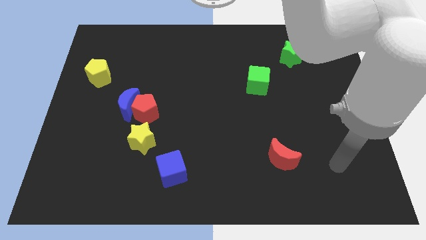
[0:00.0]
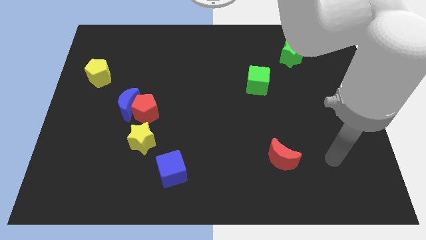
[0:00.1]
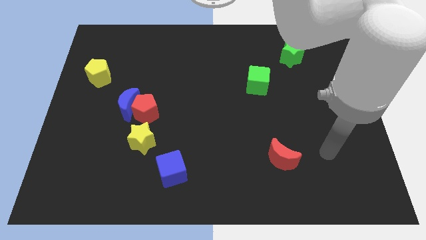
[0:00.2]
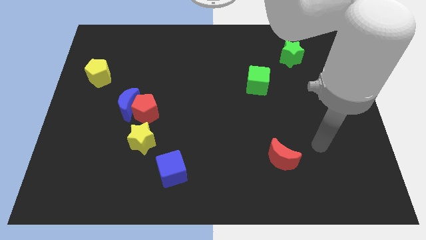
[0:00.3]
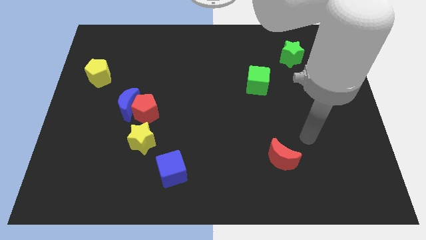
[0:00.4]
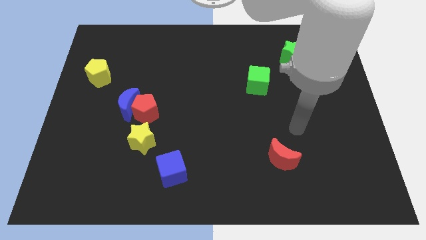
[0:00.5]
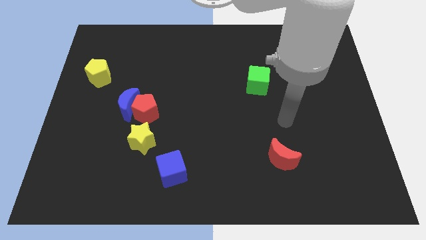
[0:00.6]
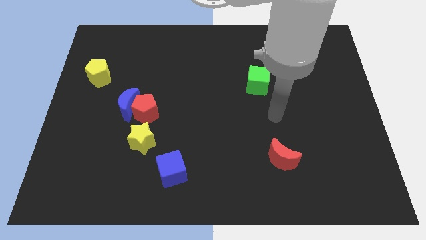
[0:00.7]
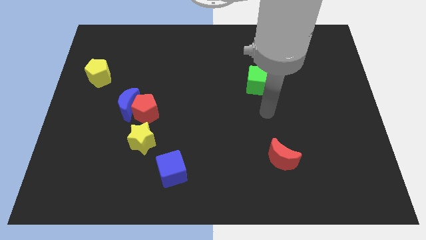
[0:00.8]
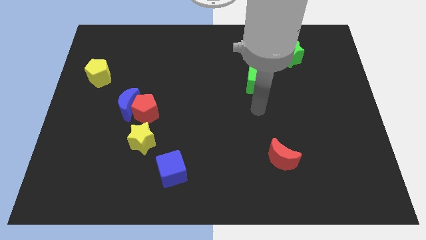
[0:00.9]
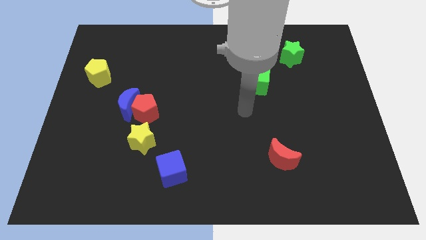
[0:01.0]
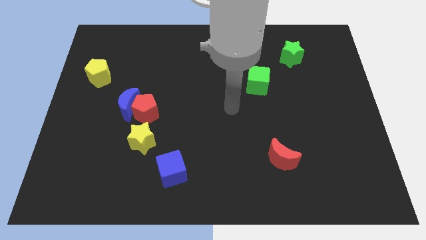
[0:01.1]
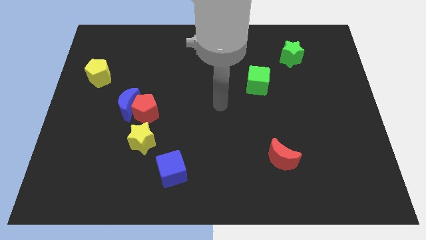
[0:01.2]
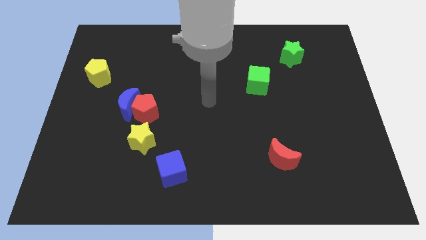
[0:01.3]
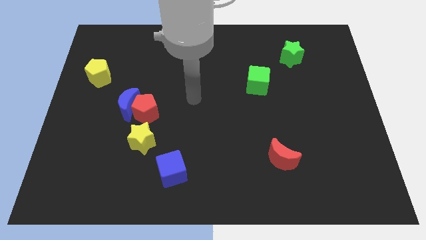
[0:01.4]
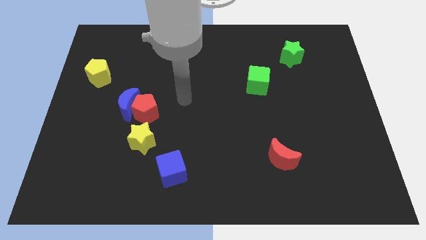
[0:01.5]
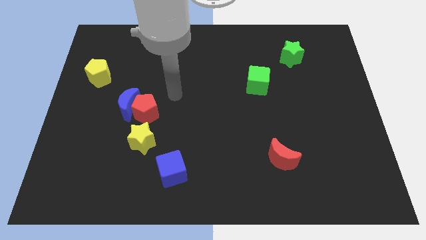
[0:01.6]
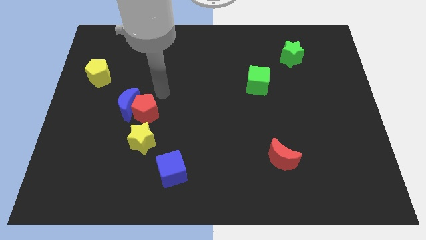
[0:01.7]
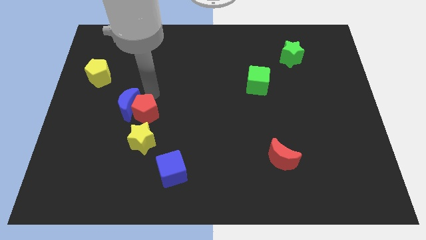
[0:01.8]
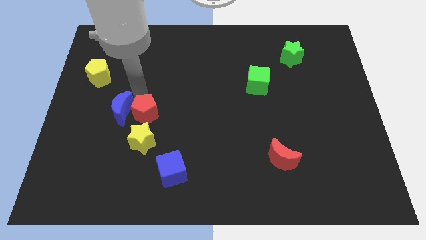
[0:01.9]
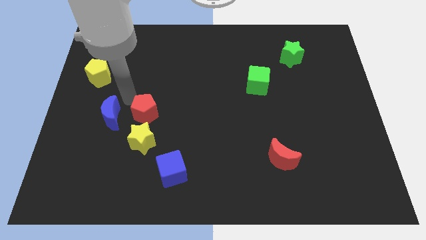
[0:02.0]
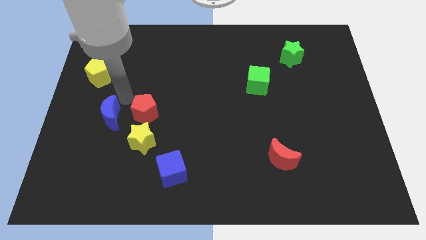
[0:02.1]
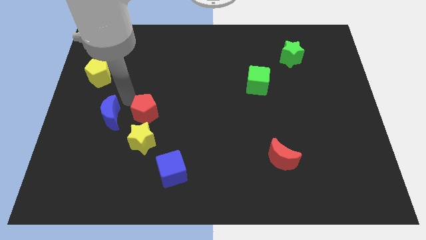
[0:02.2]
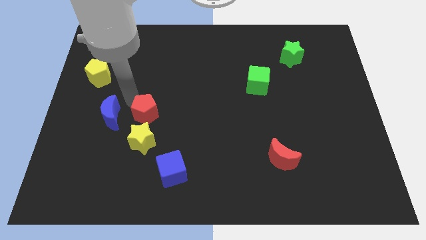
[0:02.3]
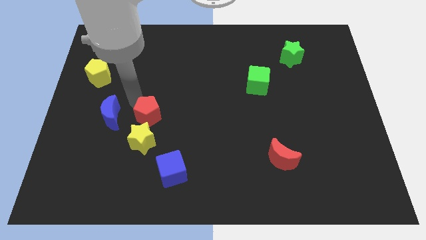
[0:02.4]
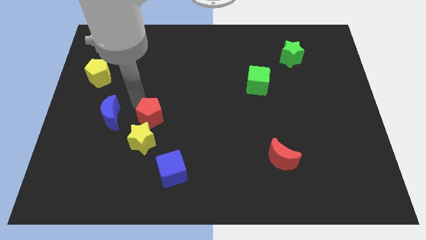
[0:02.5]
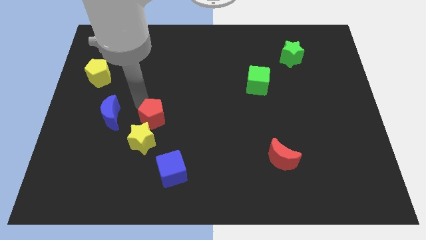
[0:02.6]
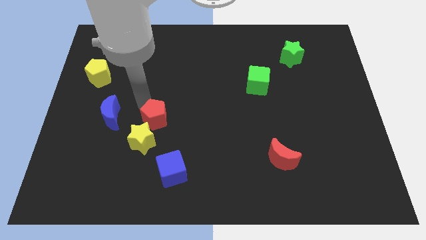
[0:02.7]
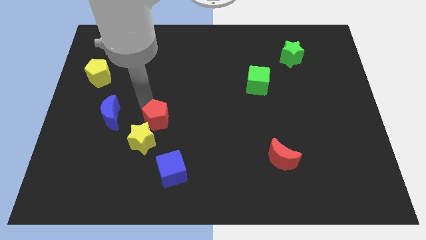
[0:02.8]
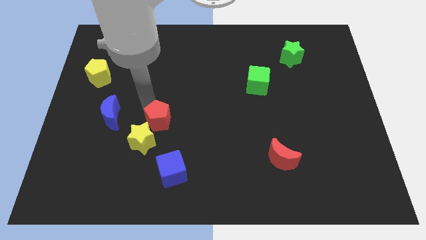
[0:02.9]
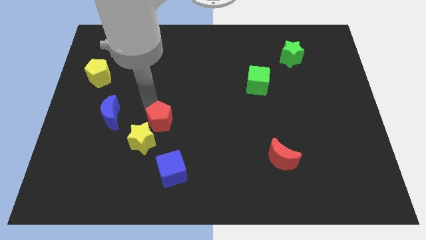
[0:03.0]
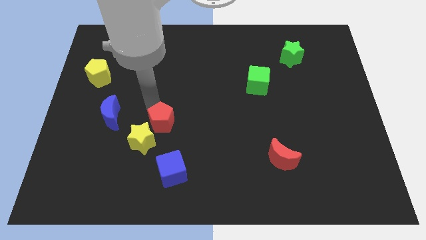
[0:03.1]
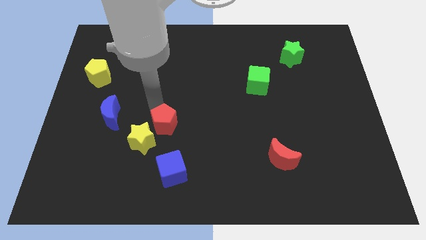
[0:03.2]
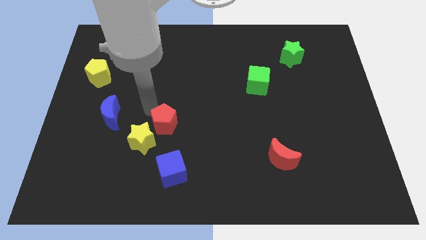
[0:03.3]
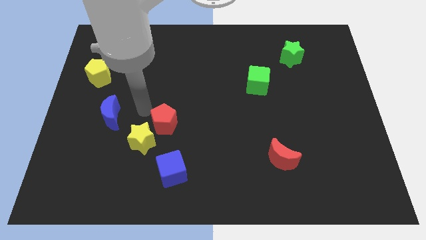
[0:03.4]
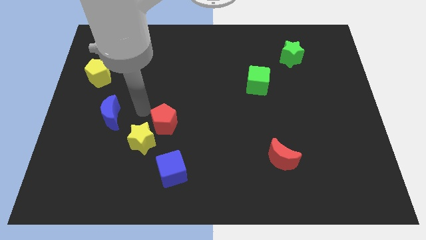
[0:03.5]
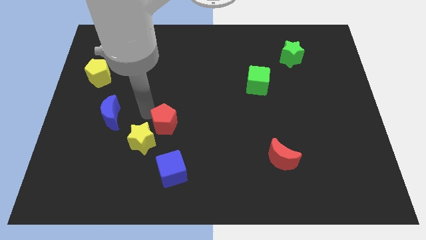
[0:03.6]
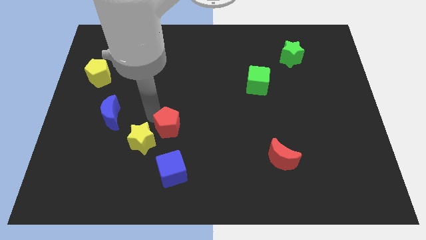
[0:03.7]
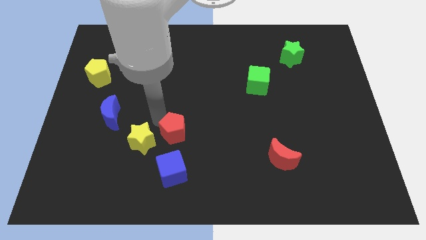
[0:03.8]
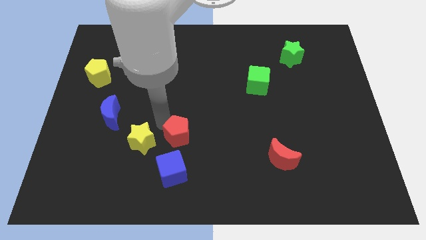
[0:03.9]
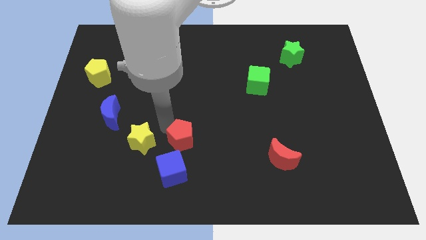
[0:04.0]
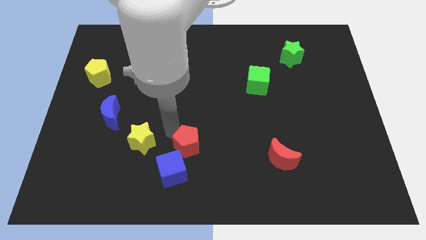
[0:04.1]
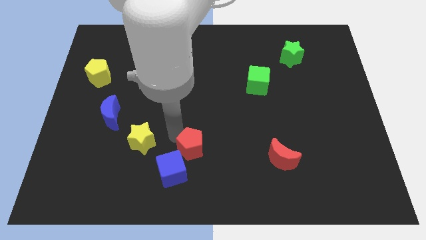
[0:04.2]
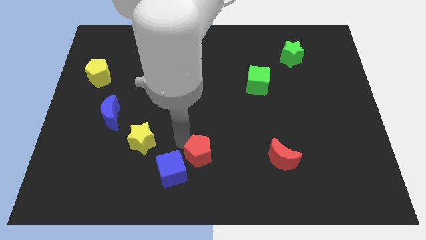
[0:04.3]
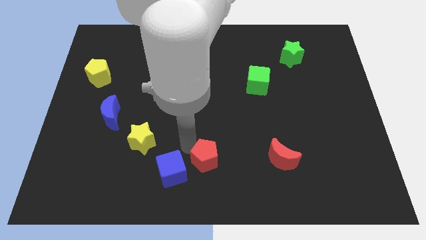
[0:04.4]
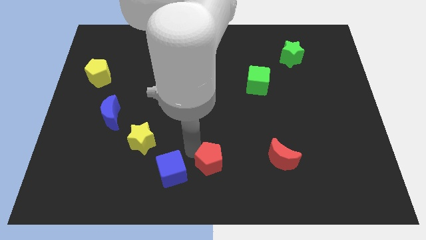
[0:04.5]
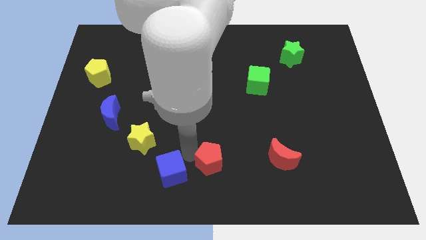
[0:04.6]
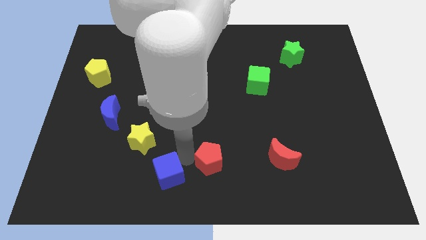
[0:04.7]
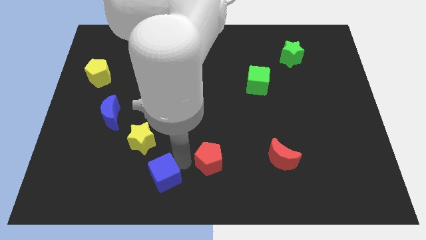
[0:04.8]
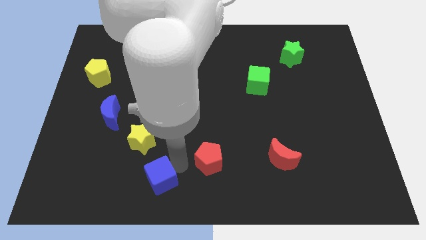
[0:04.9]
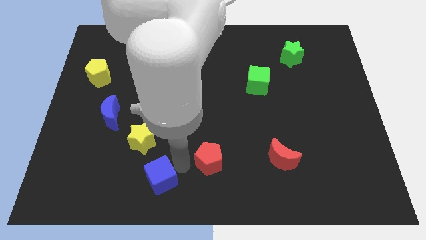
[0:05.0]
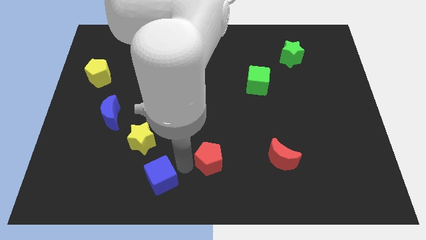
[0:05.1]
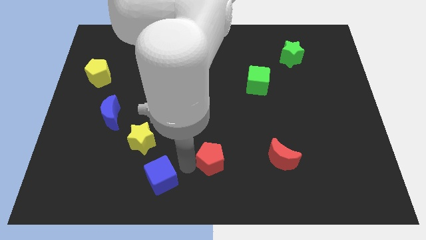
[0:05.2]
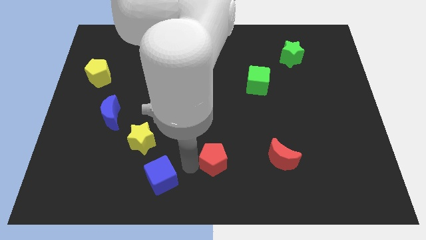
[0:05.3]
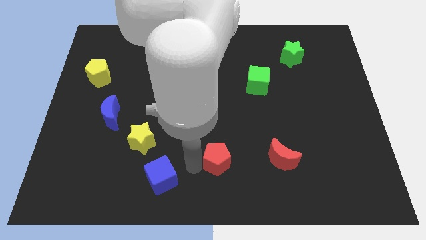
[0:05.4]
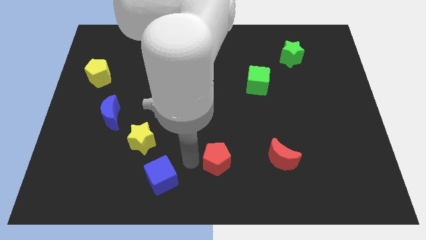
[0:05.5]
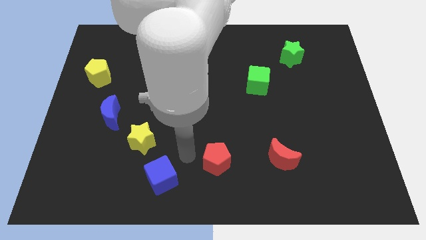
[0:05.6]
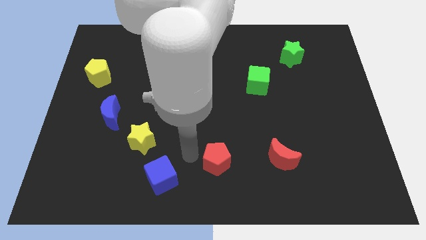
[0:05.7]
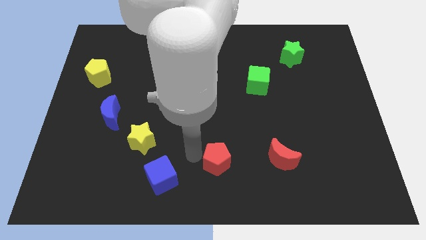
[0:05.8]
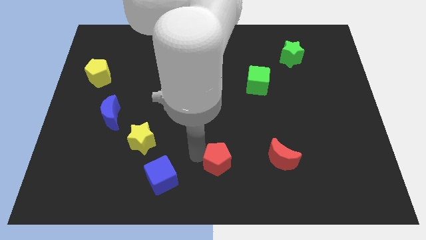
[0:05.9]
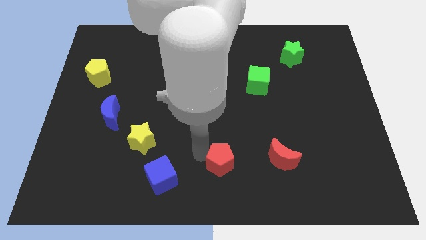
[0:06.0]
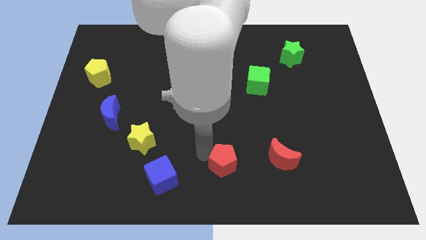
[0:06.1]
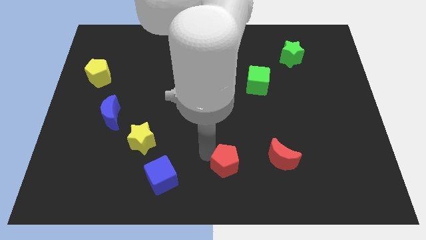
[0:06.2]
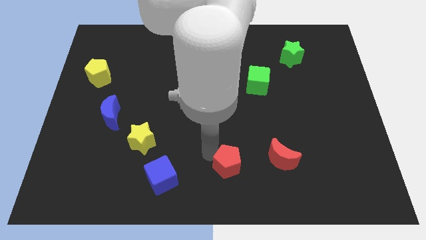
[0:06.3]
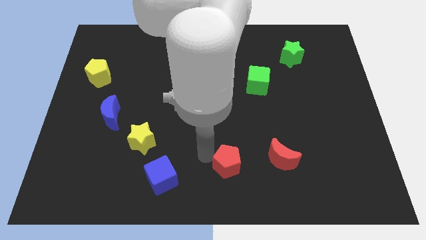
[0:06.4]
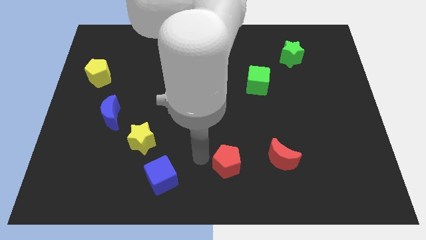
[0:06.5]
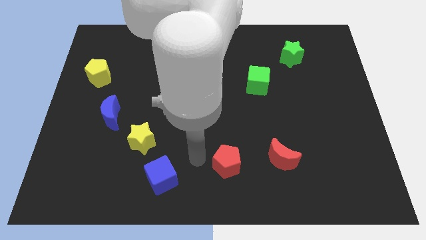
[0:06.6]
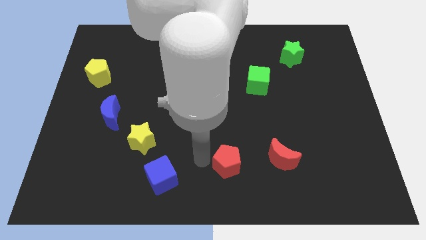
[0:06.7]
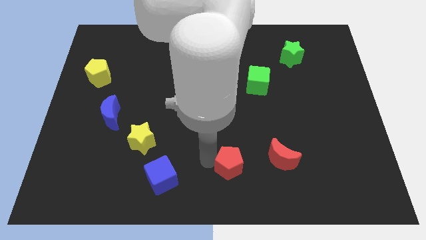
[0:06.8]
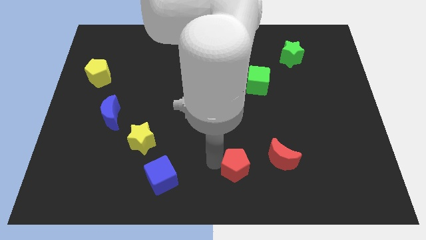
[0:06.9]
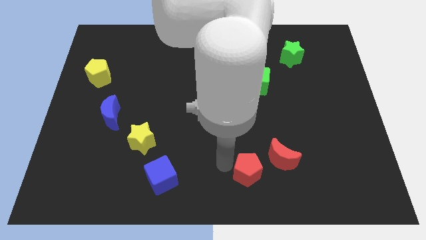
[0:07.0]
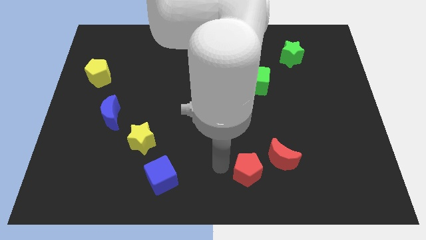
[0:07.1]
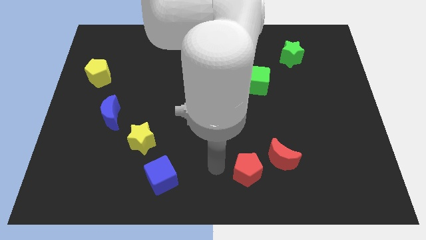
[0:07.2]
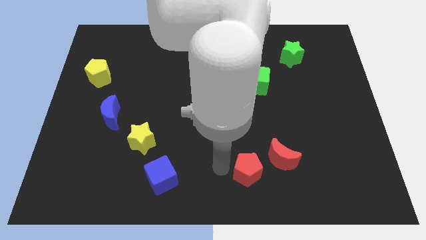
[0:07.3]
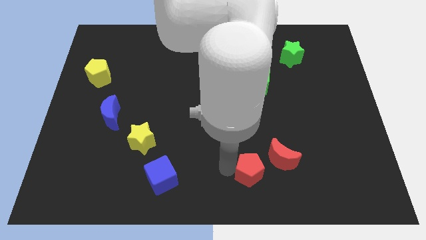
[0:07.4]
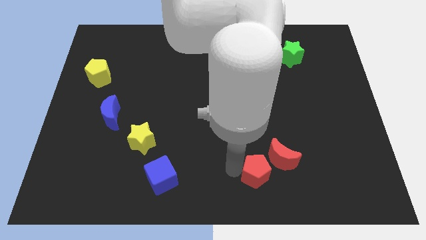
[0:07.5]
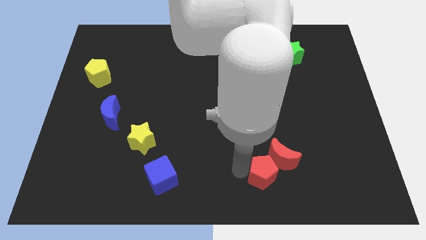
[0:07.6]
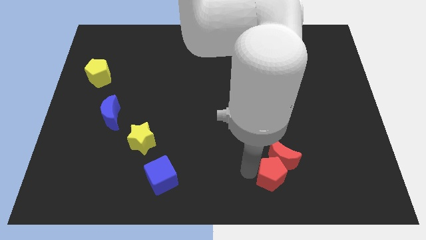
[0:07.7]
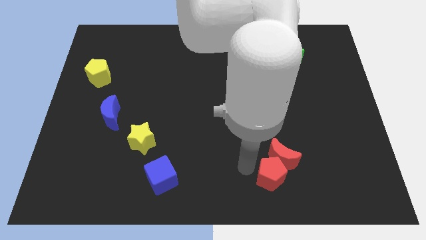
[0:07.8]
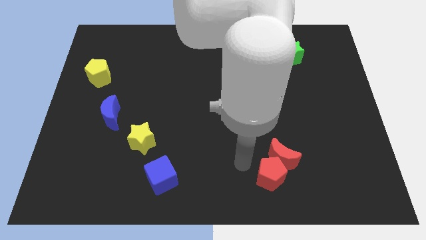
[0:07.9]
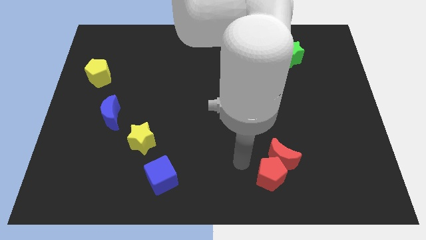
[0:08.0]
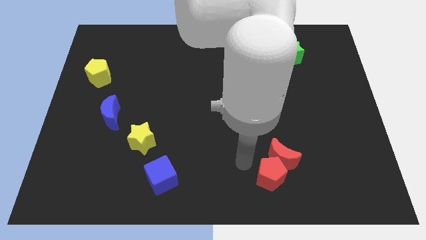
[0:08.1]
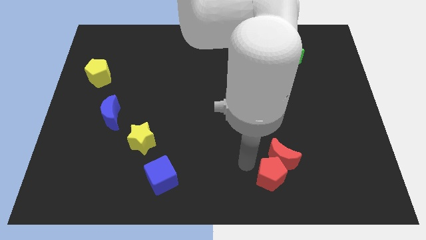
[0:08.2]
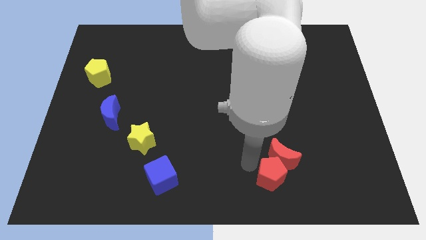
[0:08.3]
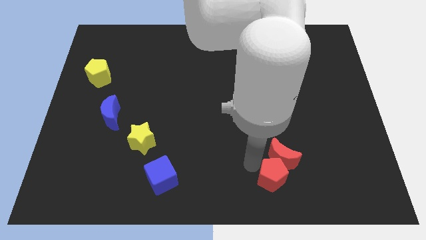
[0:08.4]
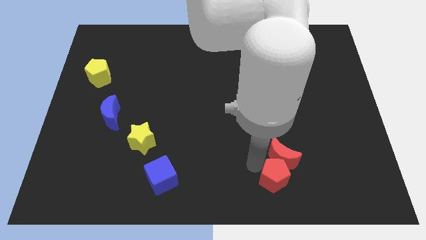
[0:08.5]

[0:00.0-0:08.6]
slide the red pentagon to the bottom right side of the red moon
